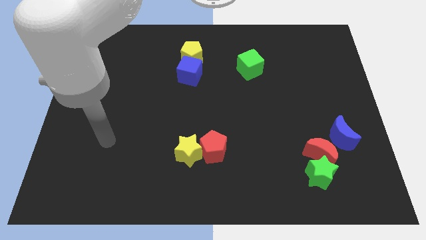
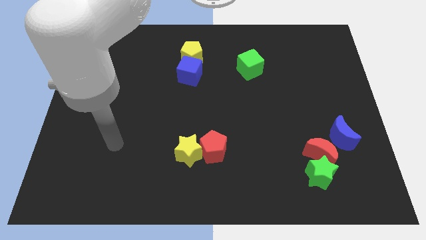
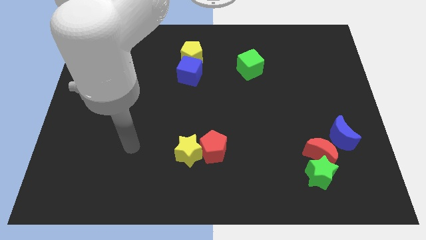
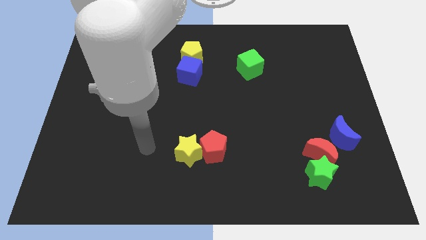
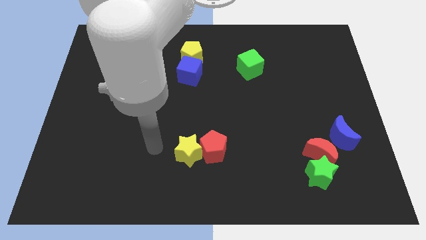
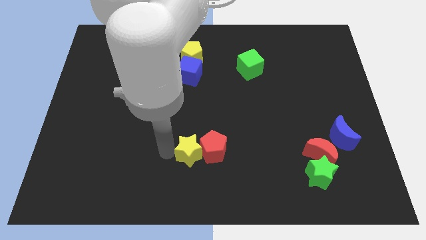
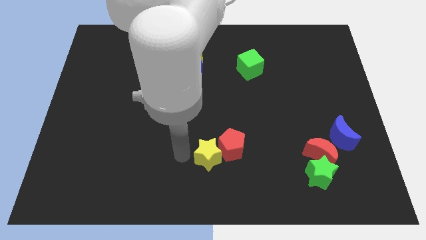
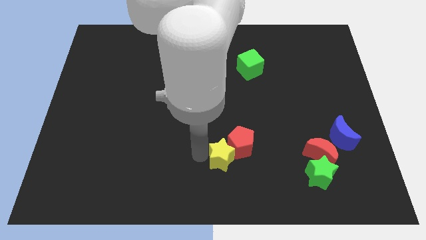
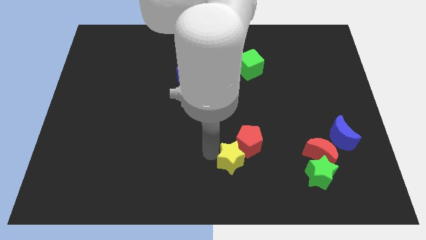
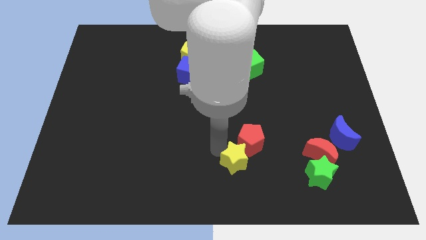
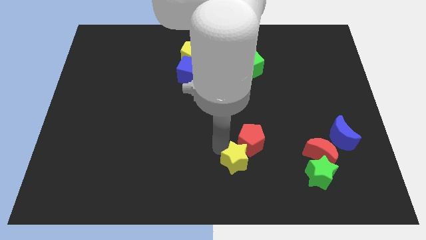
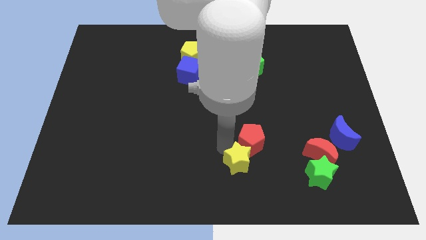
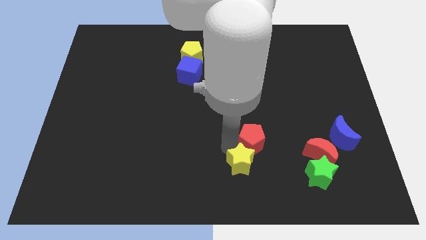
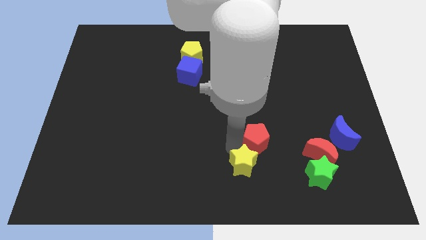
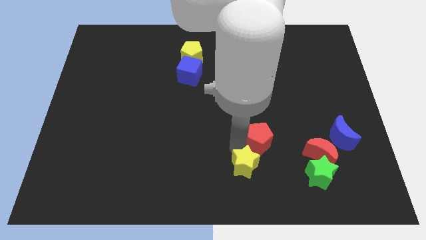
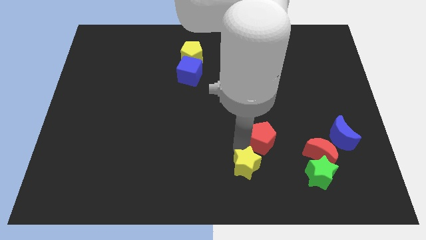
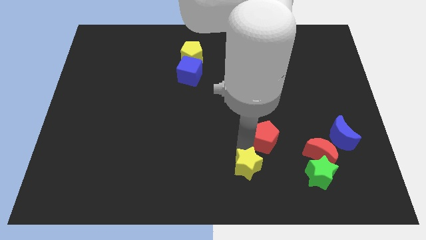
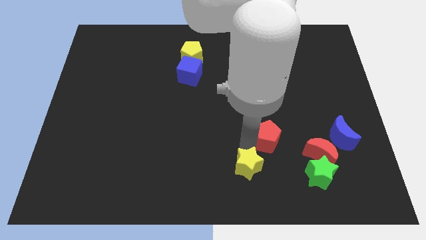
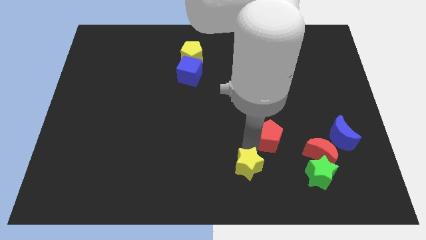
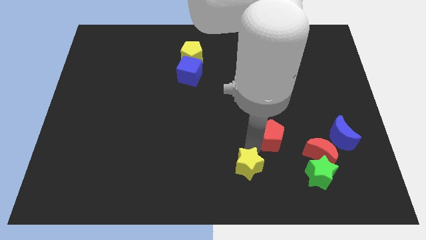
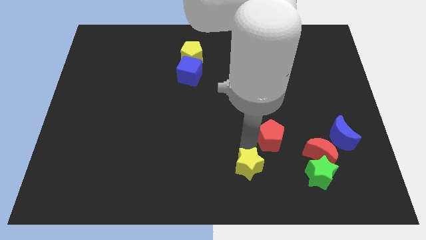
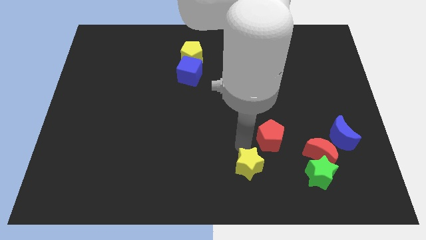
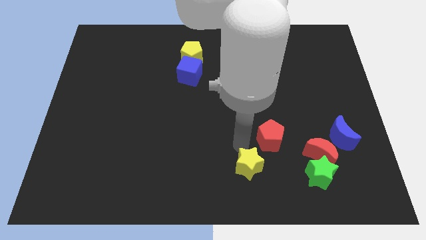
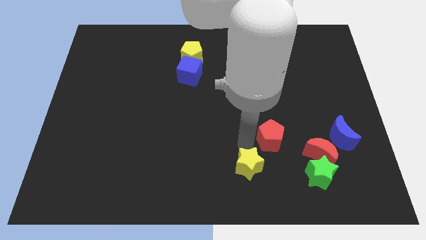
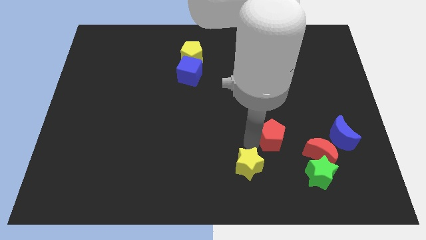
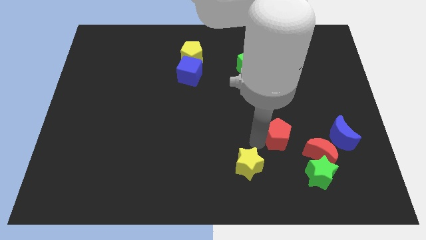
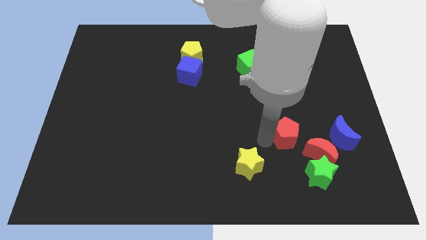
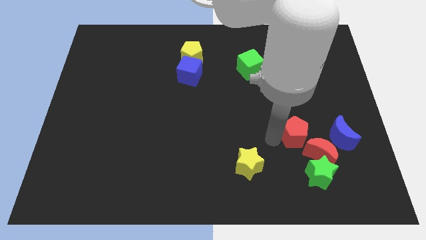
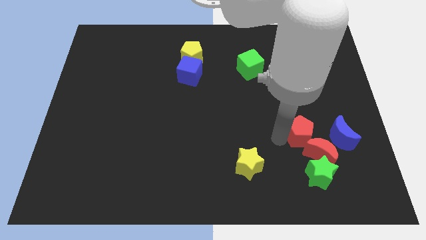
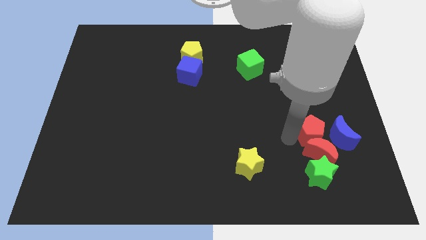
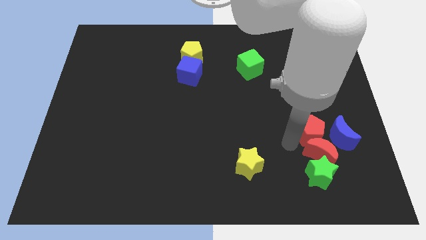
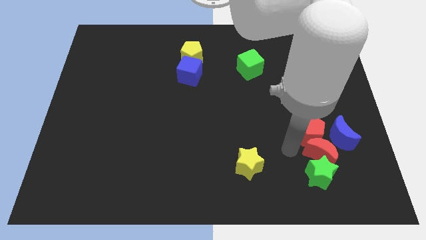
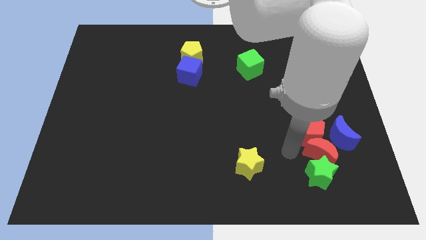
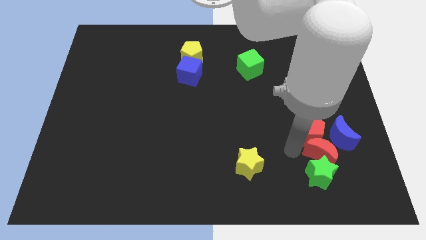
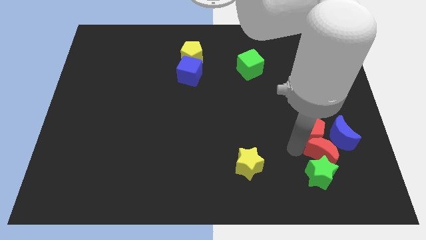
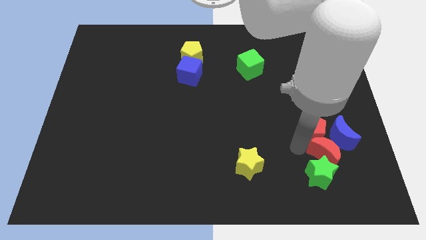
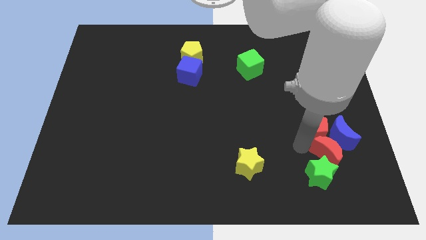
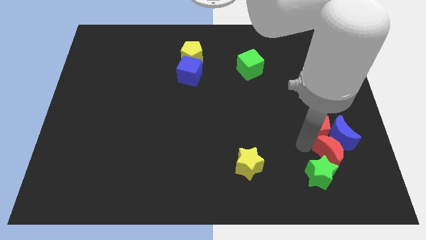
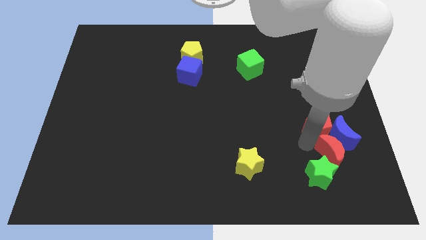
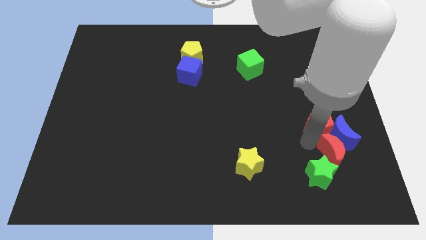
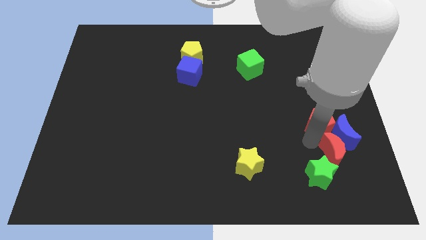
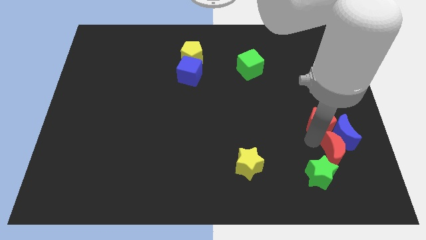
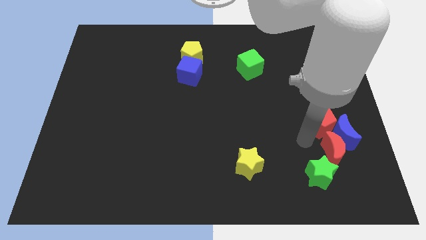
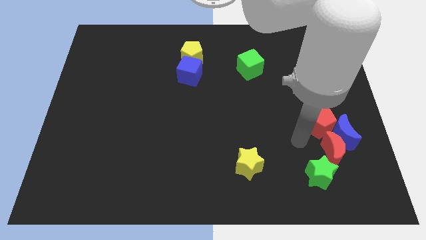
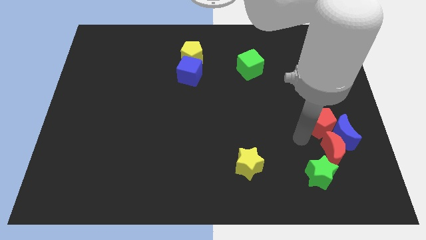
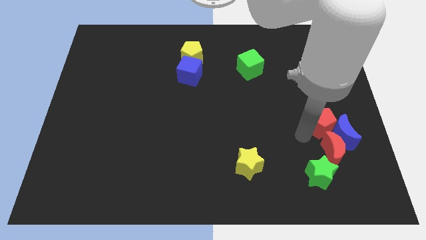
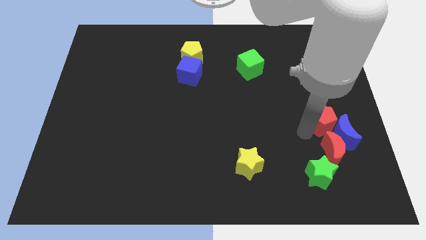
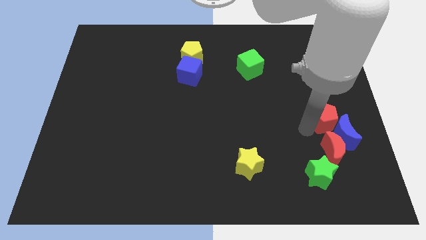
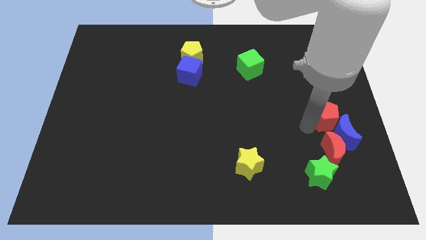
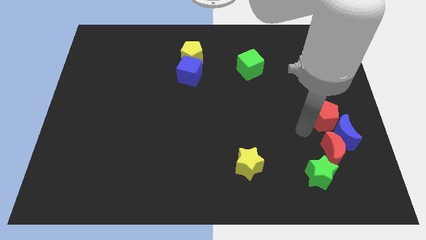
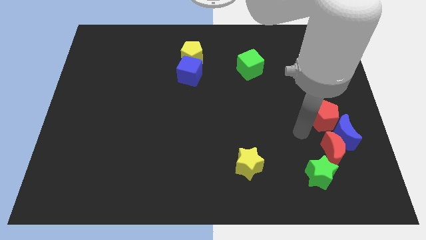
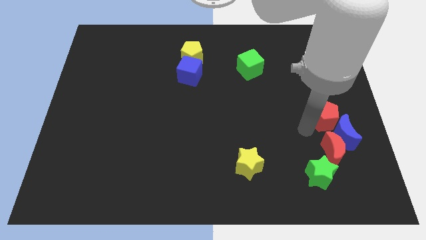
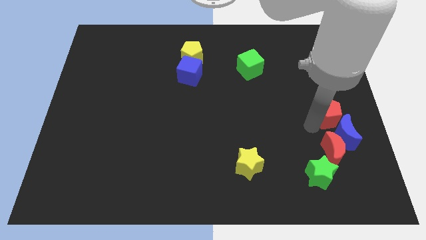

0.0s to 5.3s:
move the red pentagon to the right side

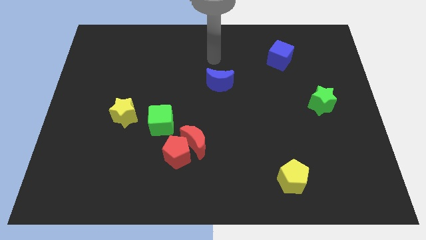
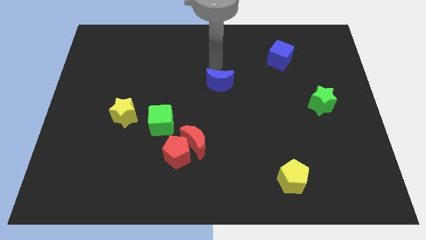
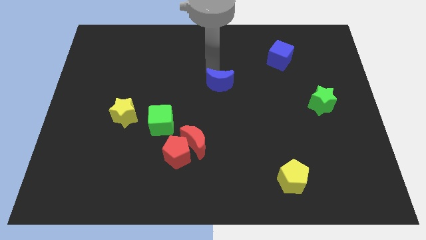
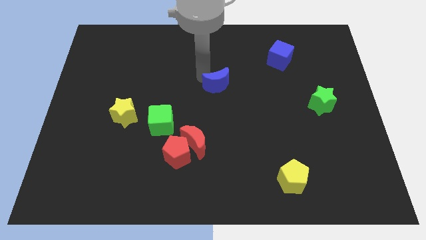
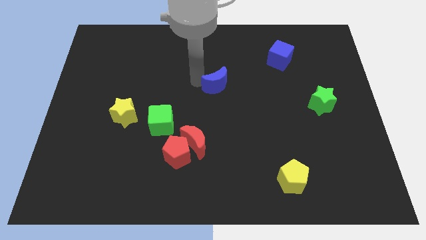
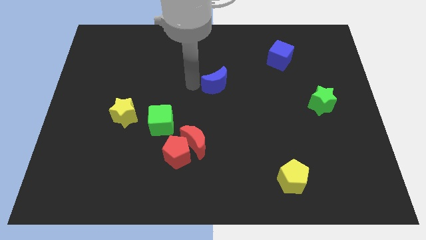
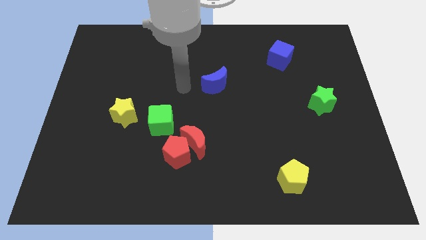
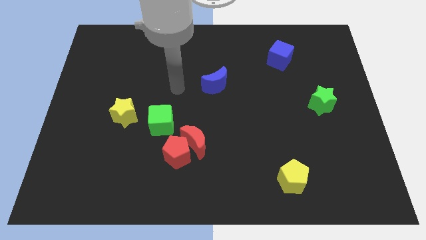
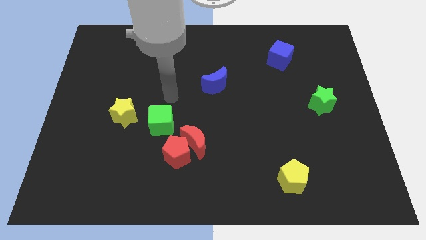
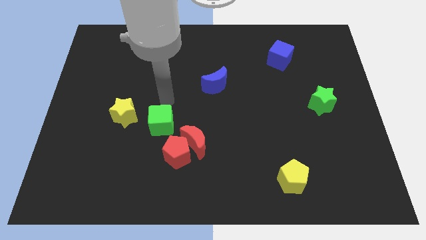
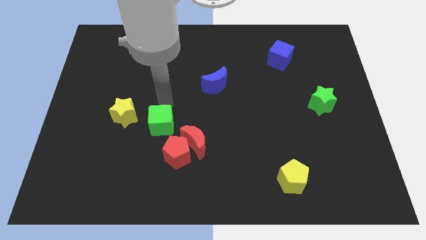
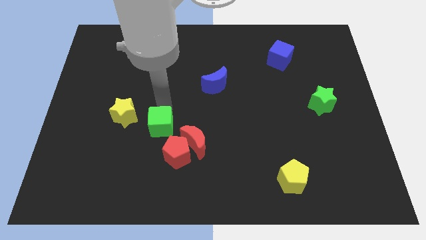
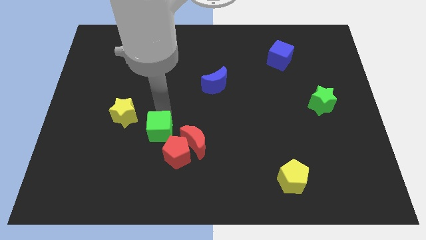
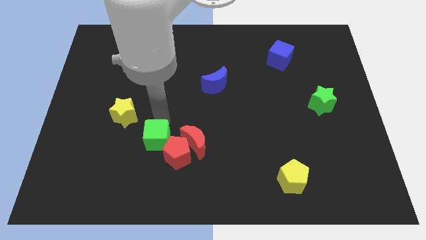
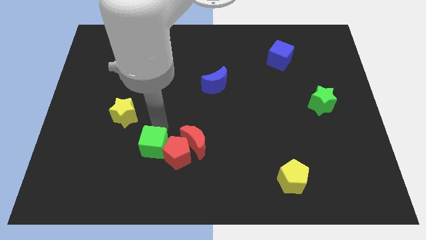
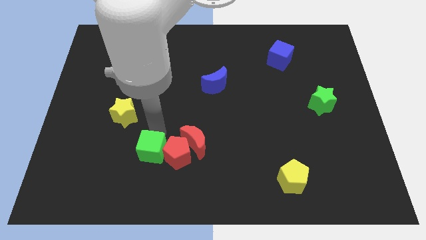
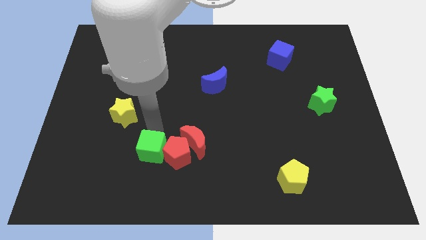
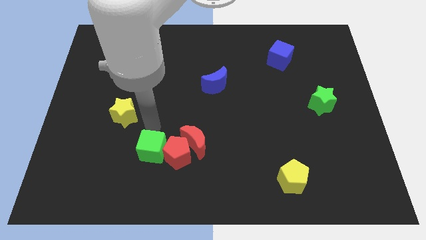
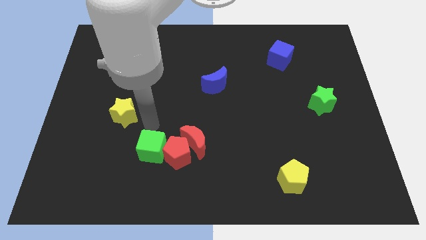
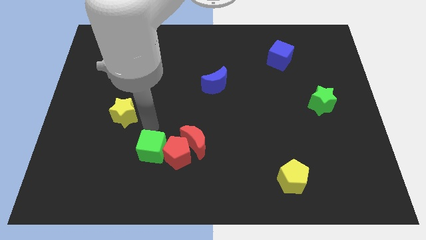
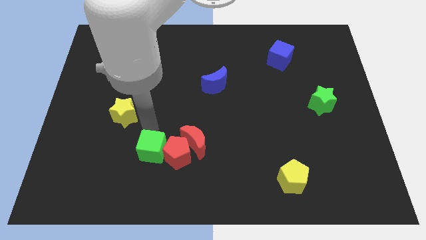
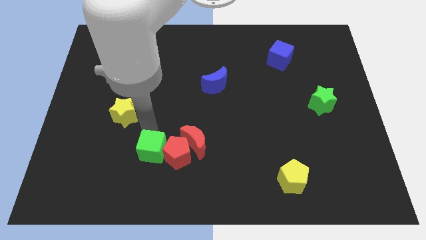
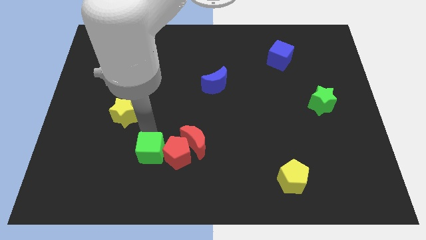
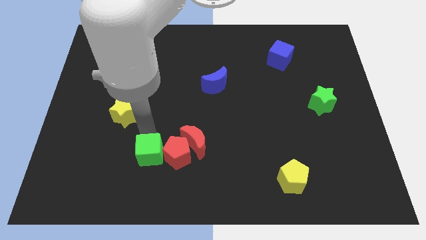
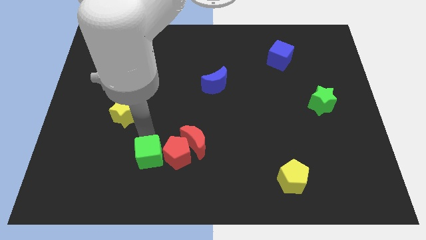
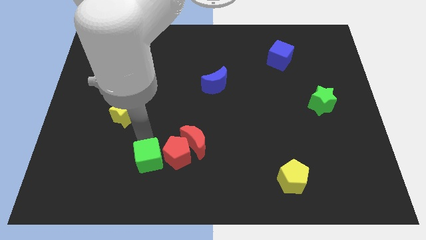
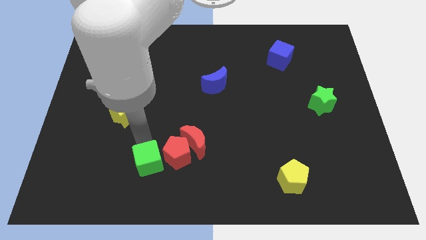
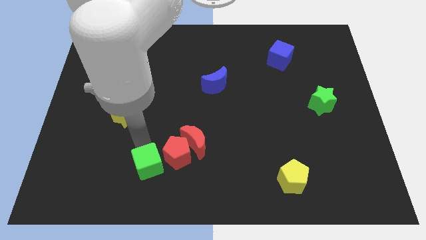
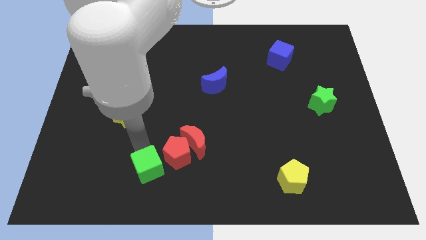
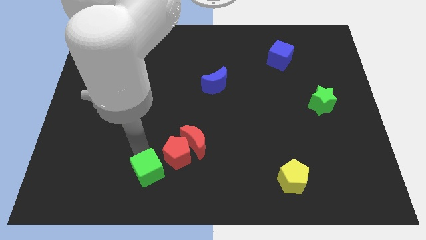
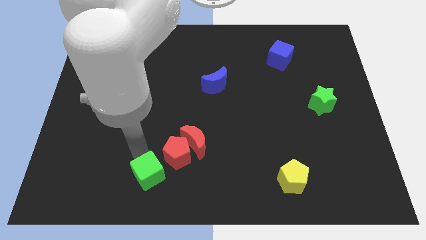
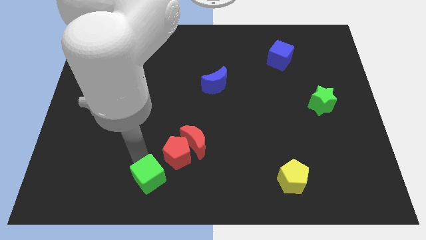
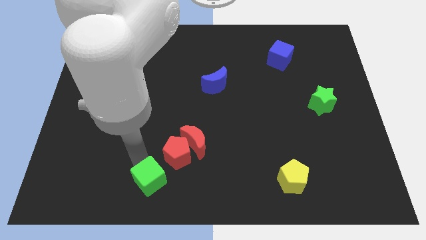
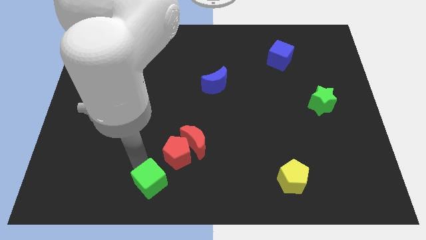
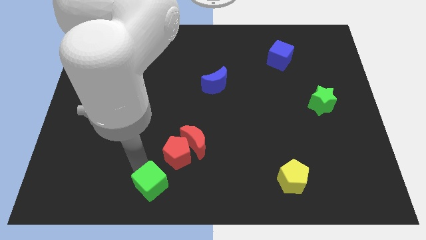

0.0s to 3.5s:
put the green cube to the bottom
